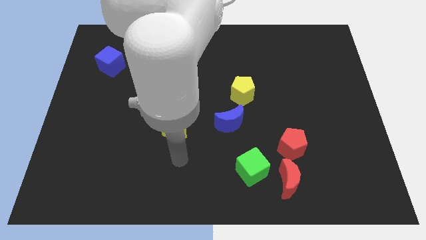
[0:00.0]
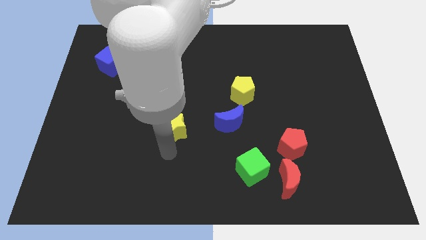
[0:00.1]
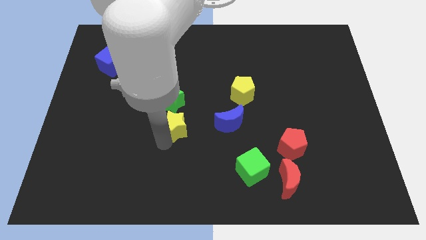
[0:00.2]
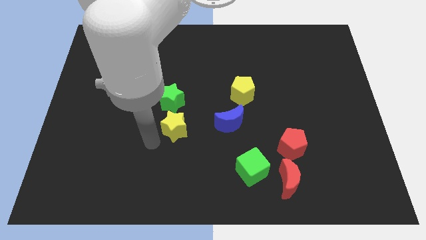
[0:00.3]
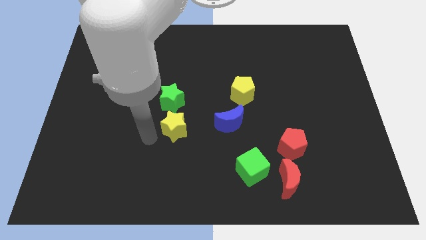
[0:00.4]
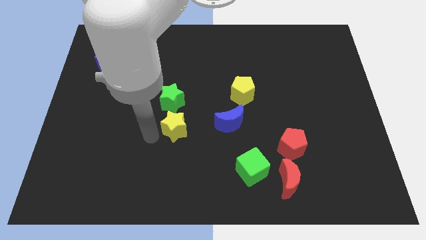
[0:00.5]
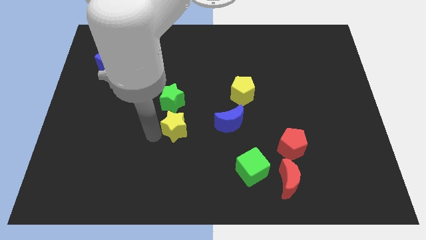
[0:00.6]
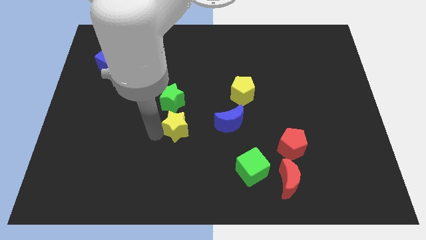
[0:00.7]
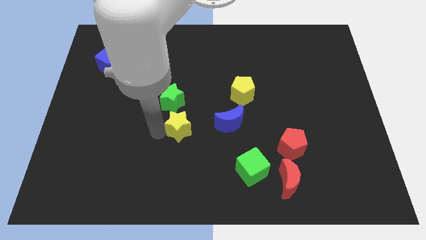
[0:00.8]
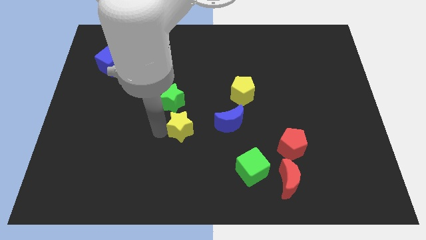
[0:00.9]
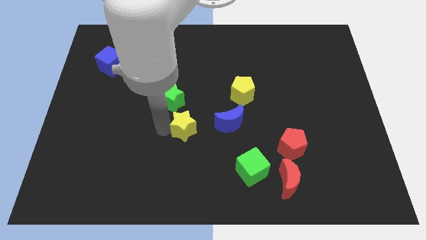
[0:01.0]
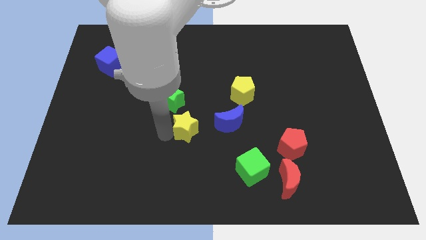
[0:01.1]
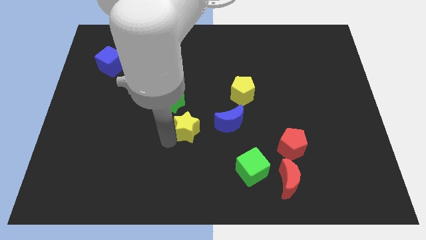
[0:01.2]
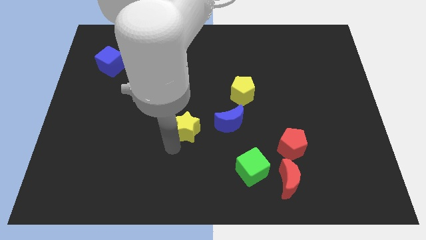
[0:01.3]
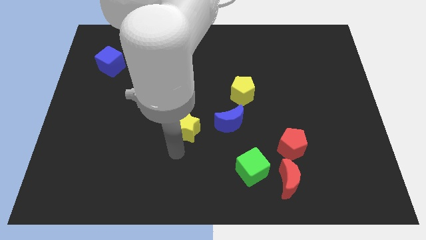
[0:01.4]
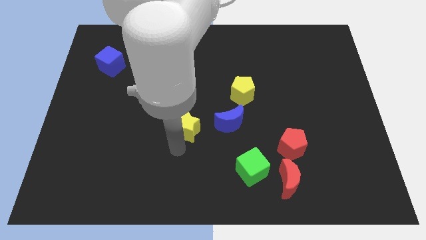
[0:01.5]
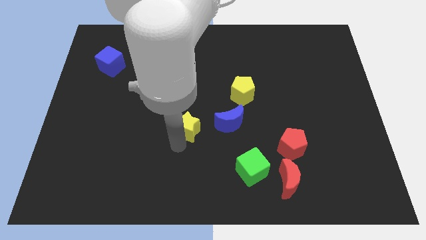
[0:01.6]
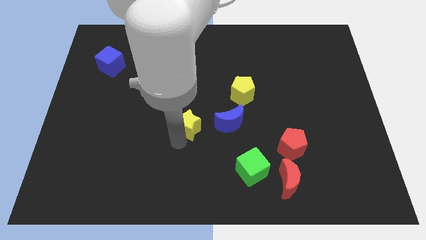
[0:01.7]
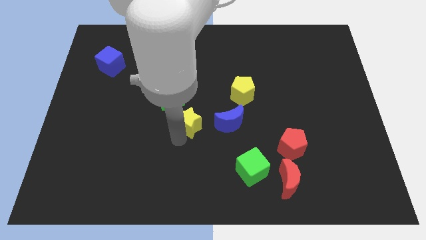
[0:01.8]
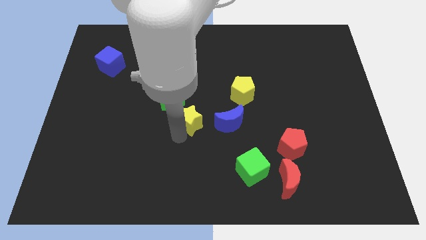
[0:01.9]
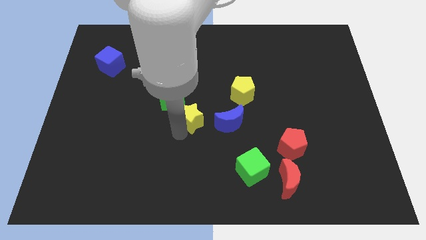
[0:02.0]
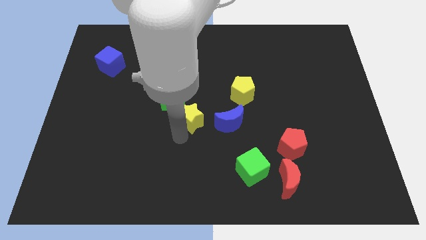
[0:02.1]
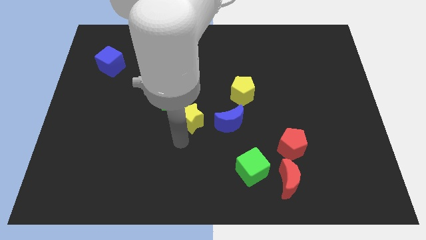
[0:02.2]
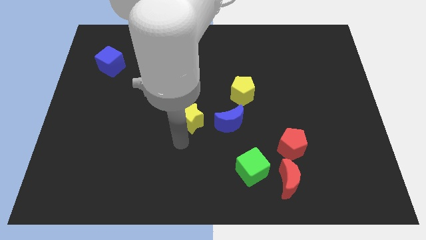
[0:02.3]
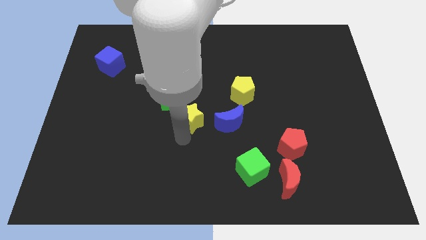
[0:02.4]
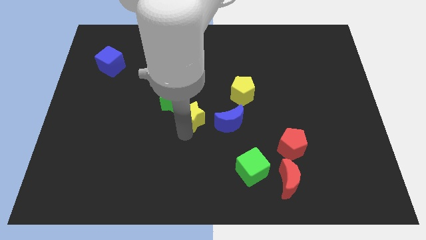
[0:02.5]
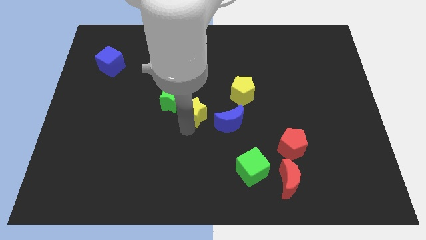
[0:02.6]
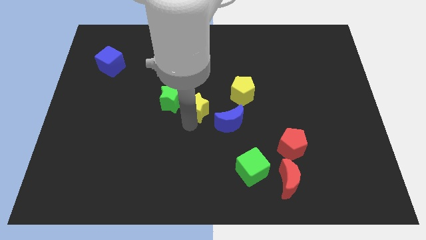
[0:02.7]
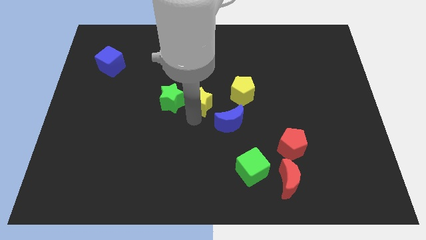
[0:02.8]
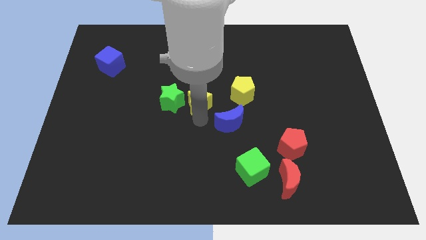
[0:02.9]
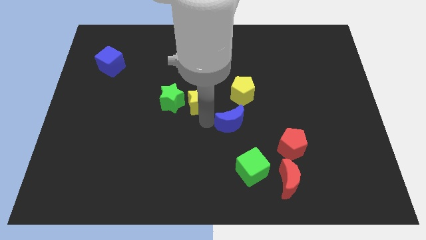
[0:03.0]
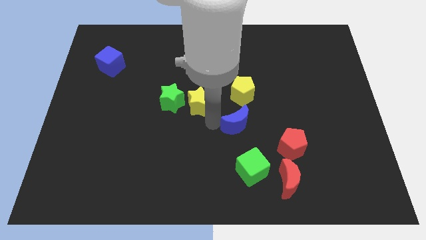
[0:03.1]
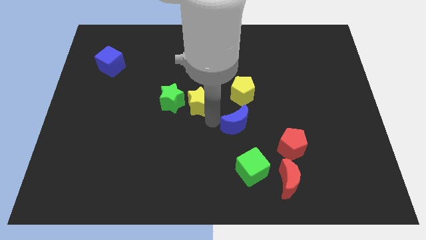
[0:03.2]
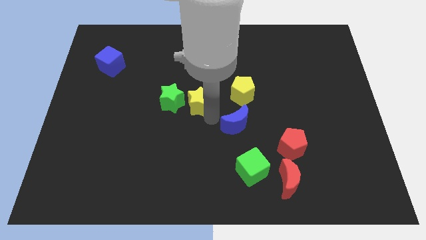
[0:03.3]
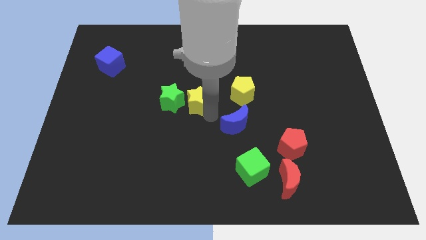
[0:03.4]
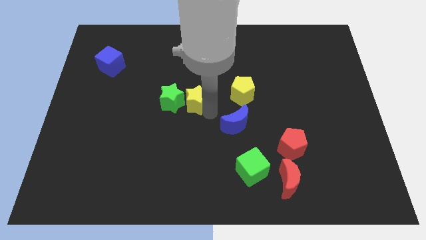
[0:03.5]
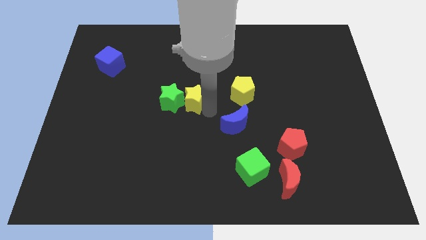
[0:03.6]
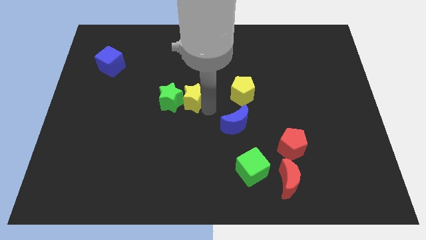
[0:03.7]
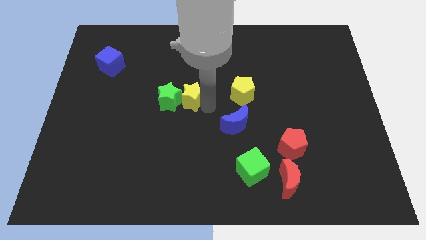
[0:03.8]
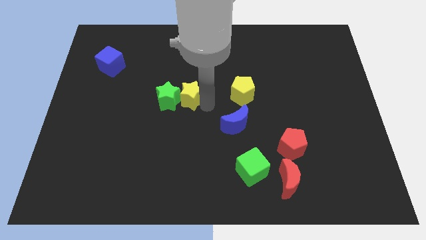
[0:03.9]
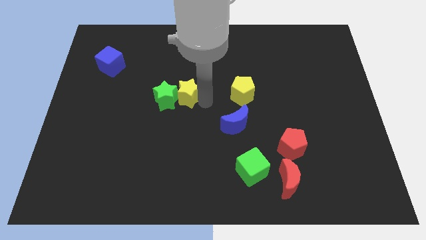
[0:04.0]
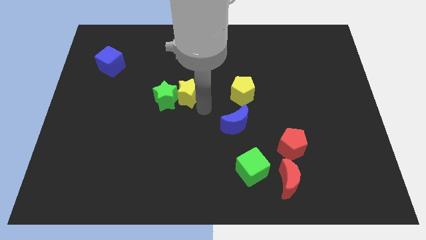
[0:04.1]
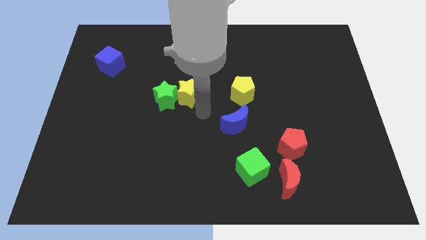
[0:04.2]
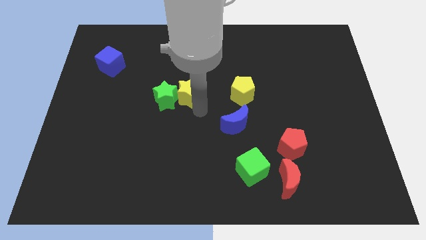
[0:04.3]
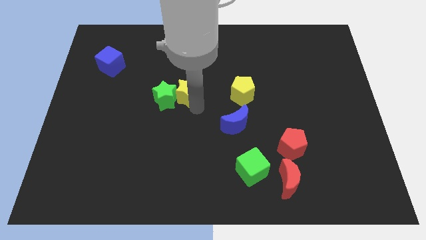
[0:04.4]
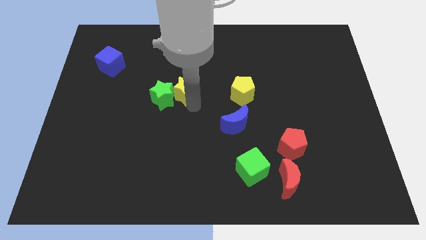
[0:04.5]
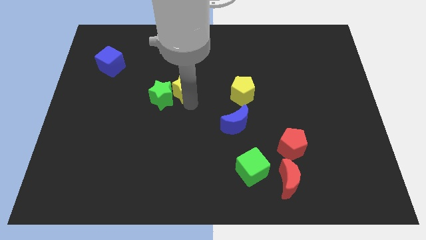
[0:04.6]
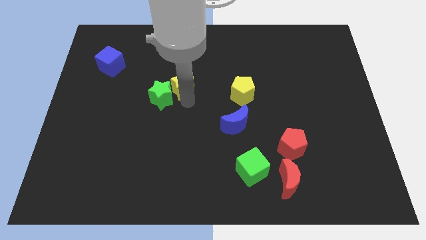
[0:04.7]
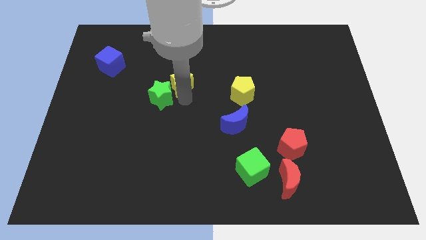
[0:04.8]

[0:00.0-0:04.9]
put the yellow star above the green star

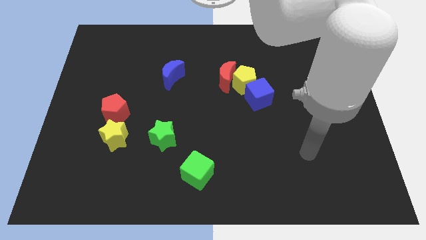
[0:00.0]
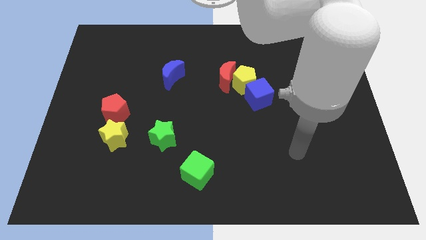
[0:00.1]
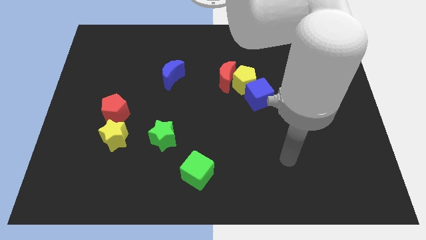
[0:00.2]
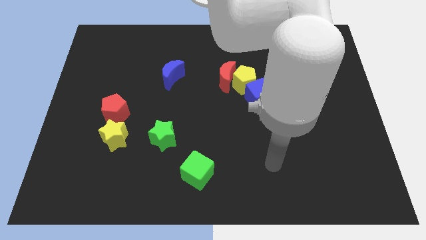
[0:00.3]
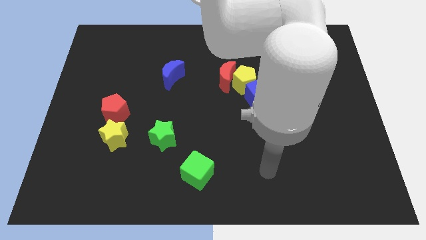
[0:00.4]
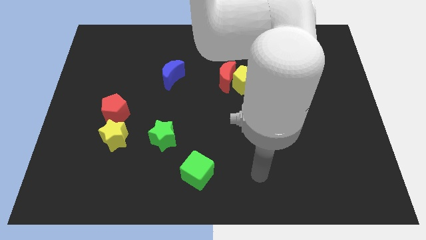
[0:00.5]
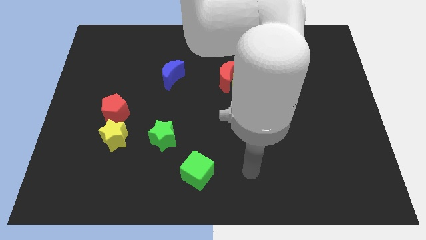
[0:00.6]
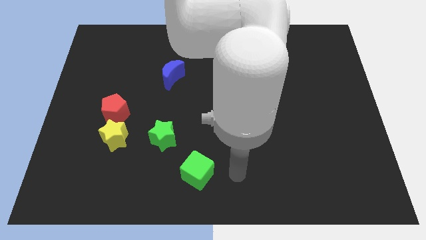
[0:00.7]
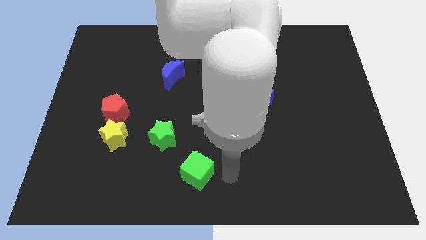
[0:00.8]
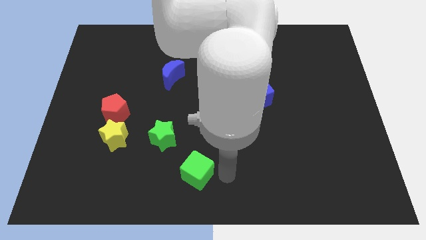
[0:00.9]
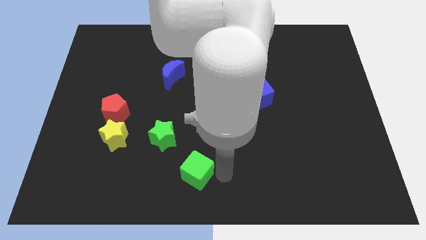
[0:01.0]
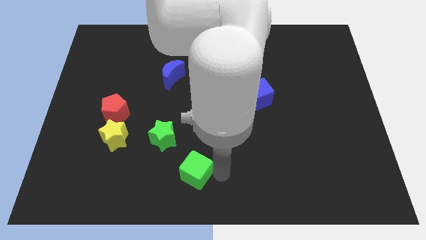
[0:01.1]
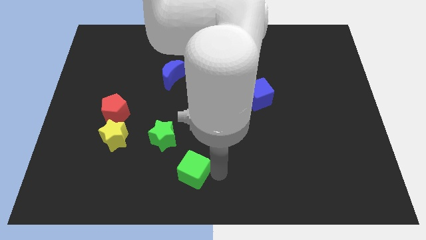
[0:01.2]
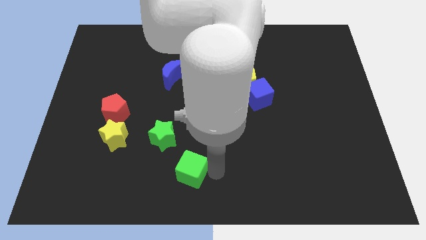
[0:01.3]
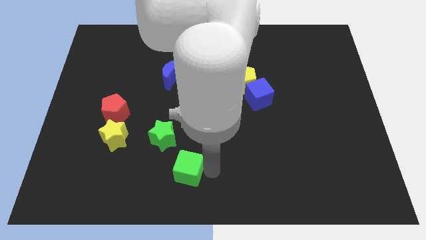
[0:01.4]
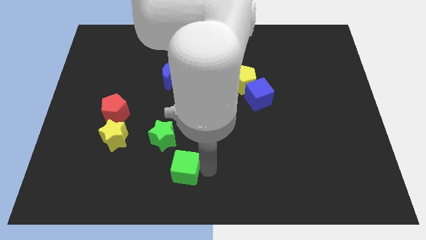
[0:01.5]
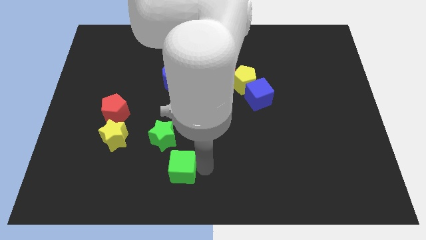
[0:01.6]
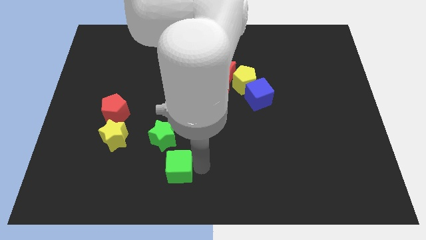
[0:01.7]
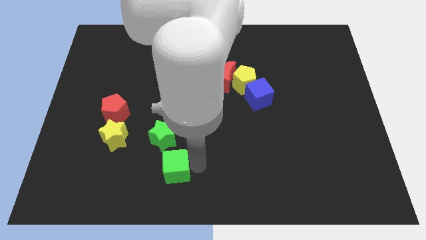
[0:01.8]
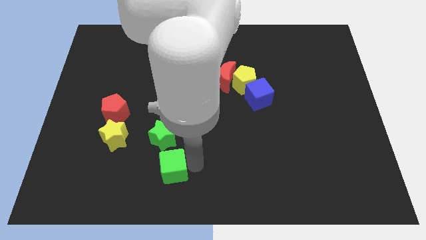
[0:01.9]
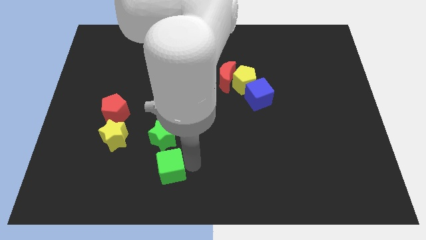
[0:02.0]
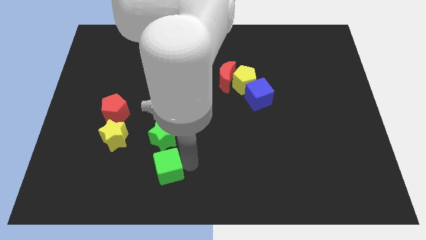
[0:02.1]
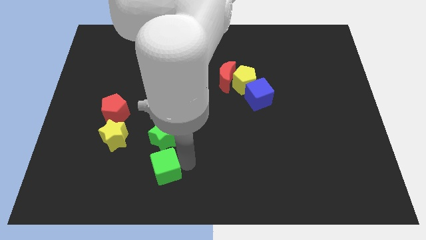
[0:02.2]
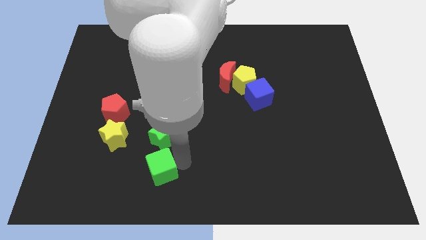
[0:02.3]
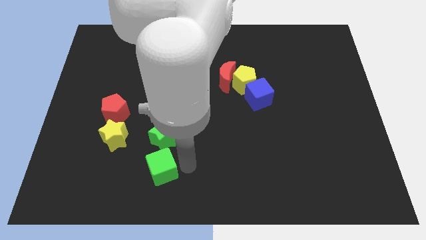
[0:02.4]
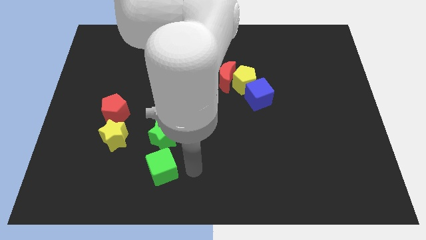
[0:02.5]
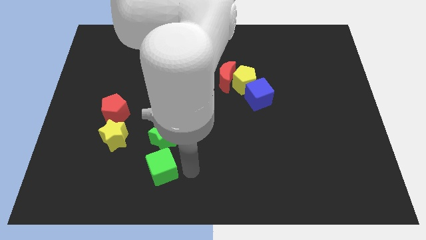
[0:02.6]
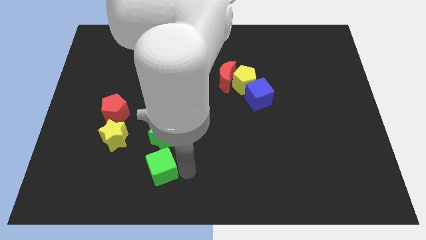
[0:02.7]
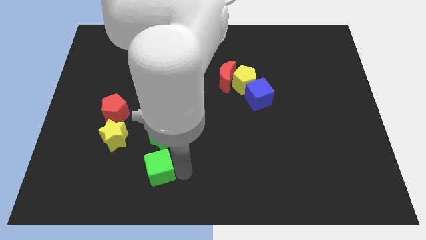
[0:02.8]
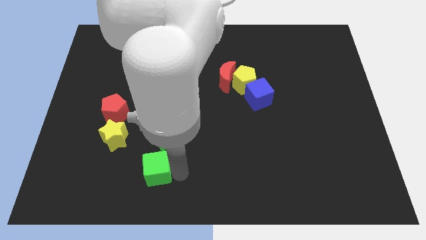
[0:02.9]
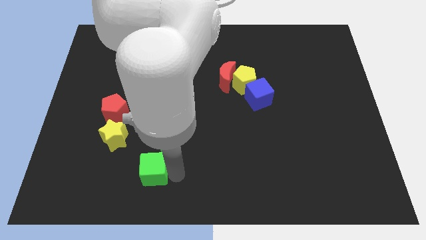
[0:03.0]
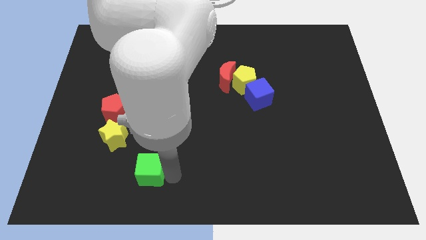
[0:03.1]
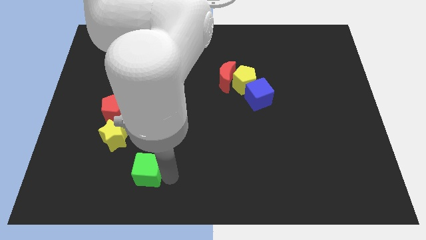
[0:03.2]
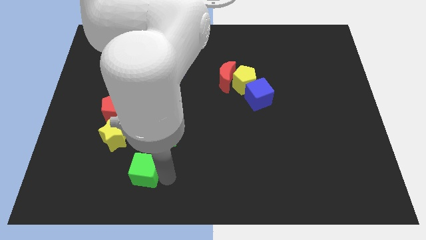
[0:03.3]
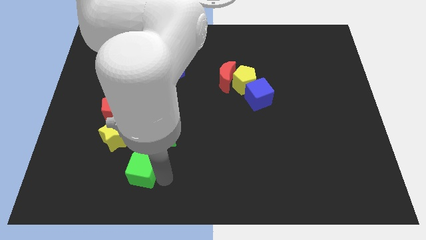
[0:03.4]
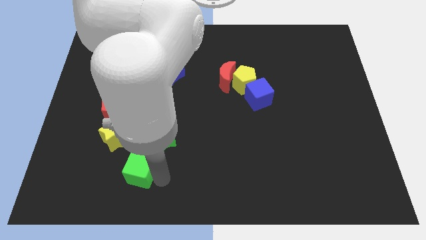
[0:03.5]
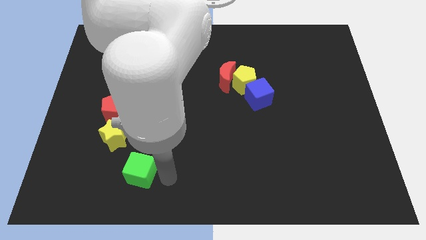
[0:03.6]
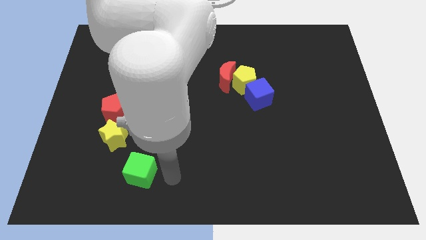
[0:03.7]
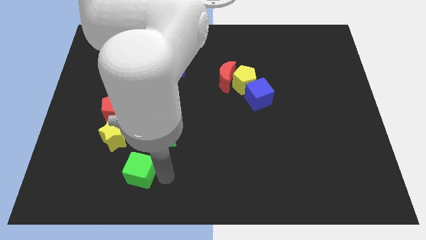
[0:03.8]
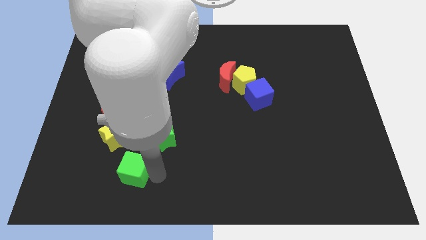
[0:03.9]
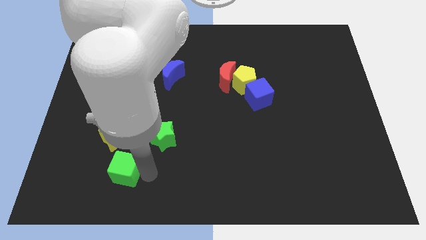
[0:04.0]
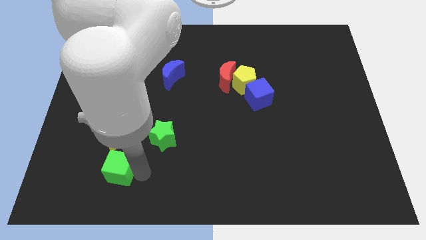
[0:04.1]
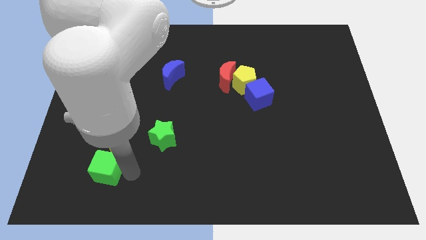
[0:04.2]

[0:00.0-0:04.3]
move the green cube to the bottom left of the yellow star
